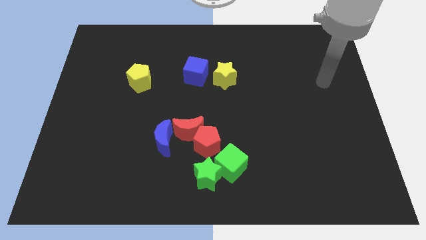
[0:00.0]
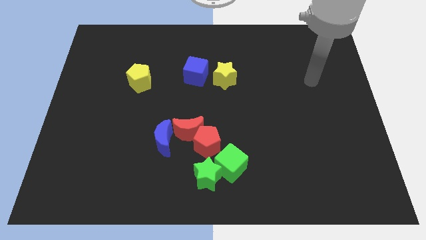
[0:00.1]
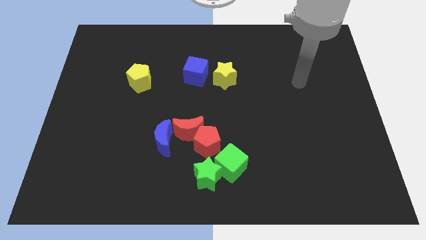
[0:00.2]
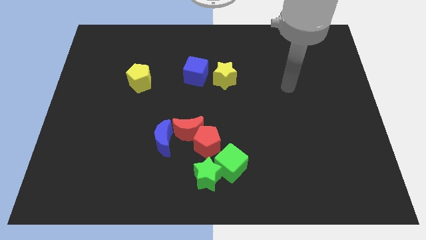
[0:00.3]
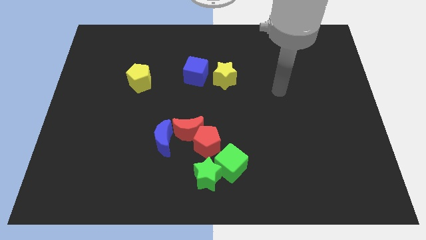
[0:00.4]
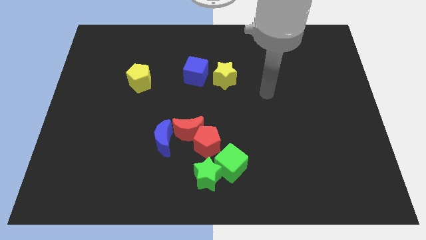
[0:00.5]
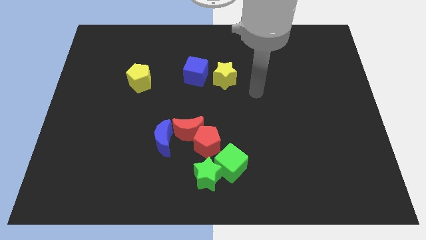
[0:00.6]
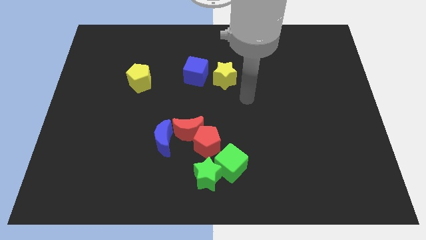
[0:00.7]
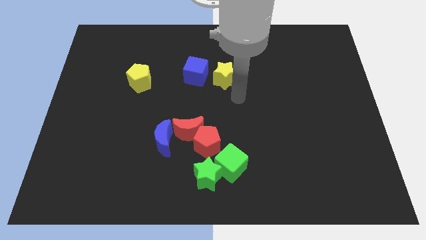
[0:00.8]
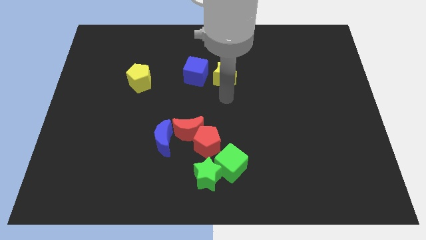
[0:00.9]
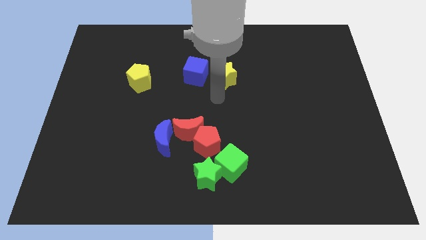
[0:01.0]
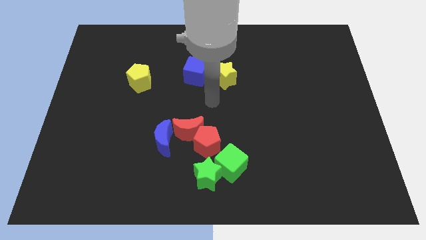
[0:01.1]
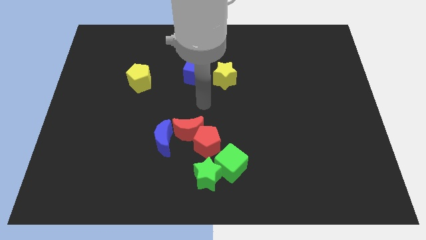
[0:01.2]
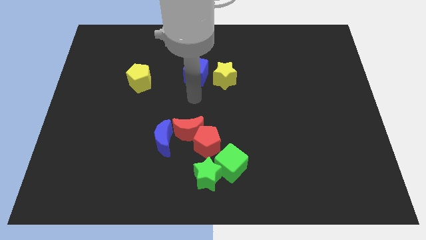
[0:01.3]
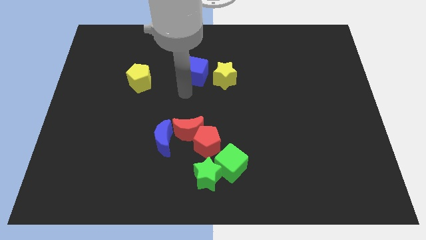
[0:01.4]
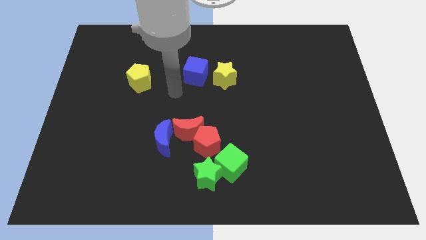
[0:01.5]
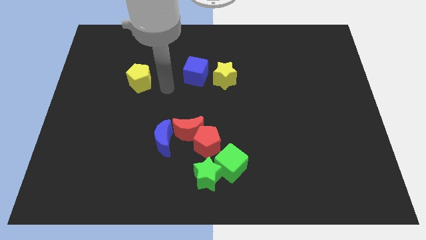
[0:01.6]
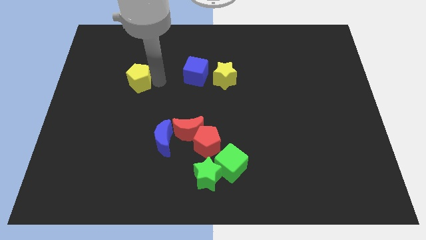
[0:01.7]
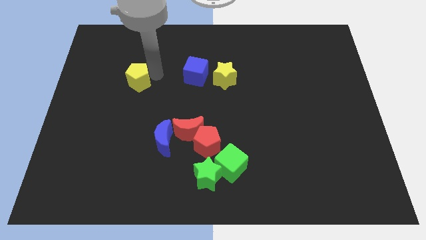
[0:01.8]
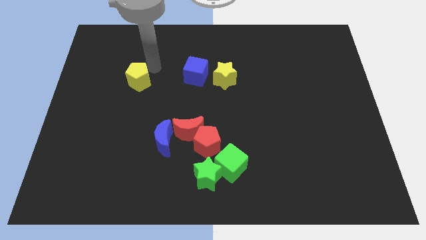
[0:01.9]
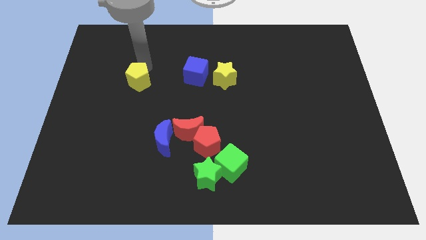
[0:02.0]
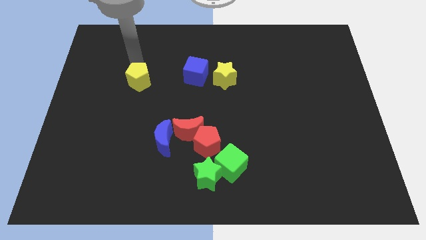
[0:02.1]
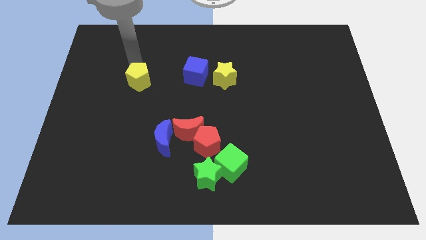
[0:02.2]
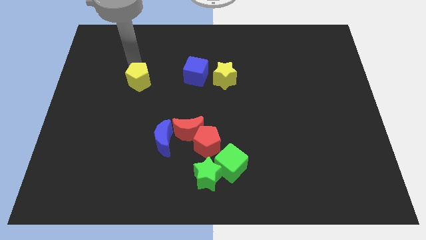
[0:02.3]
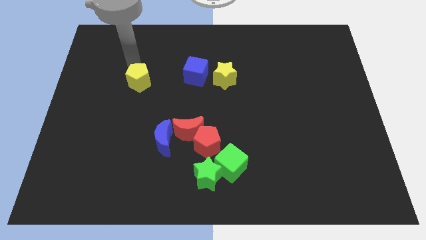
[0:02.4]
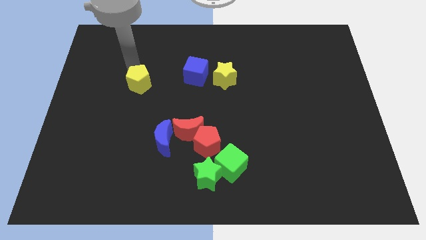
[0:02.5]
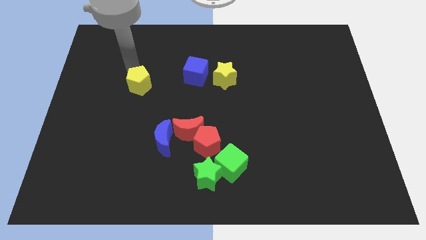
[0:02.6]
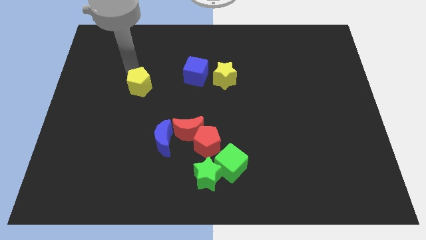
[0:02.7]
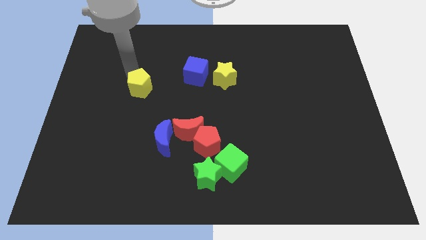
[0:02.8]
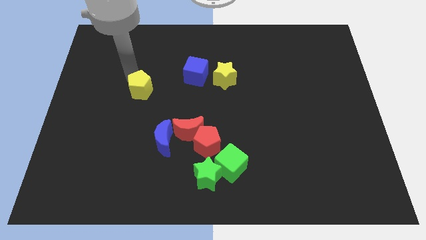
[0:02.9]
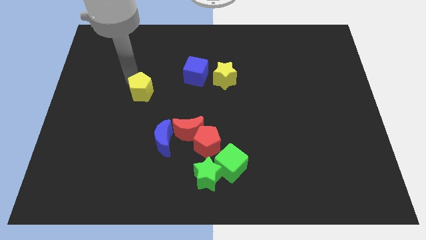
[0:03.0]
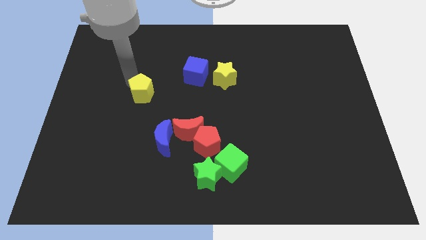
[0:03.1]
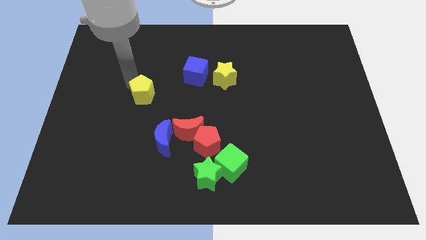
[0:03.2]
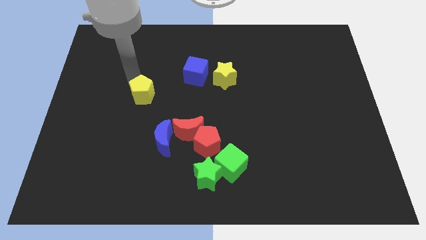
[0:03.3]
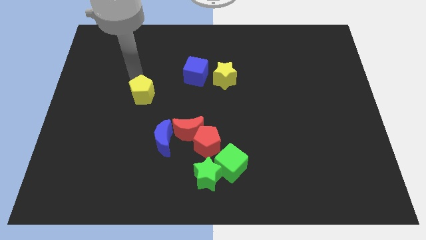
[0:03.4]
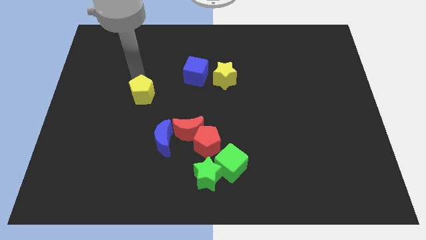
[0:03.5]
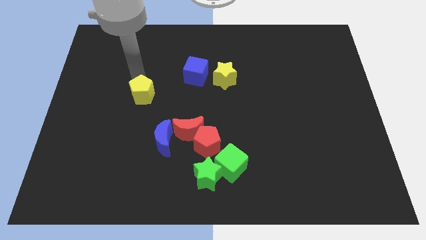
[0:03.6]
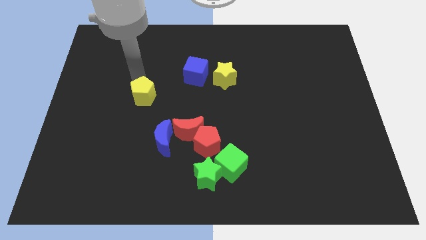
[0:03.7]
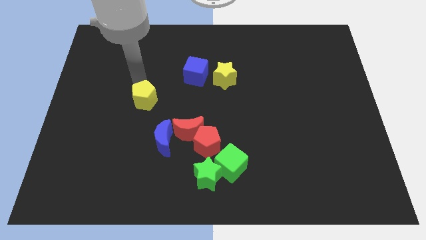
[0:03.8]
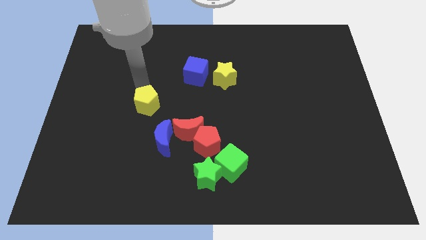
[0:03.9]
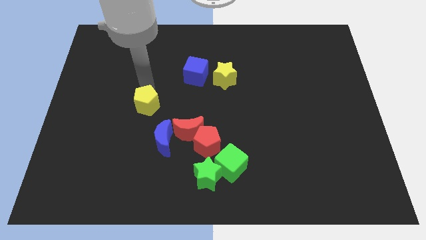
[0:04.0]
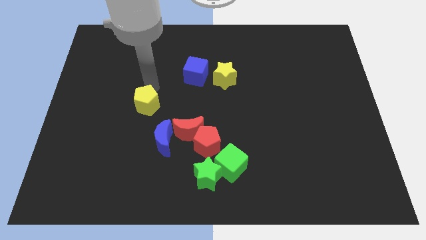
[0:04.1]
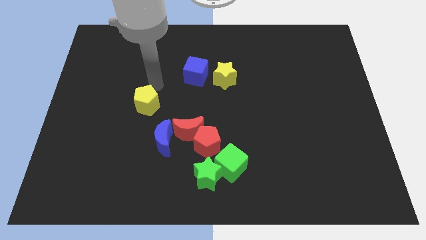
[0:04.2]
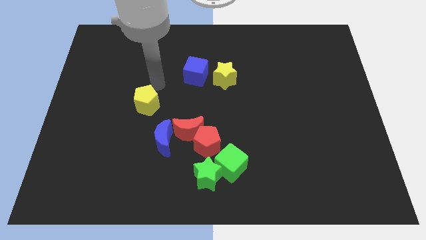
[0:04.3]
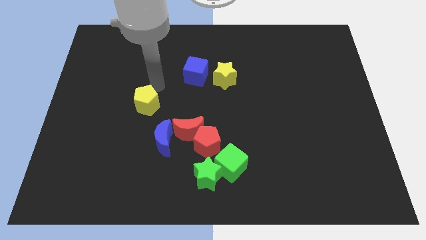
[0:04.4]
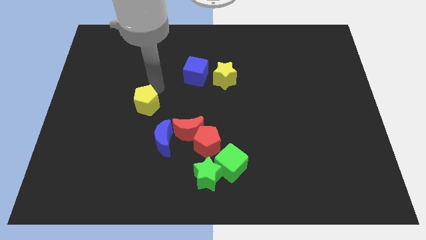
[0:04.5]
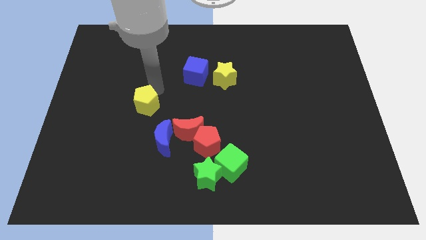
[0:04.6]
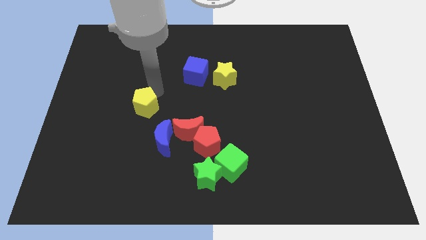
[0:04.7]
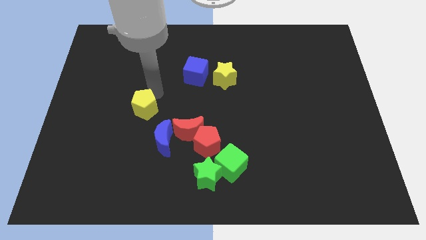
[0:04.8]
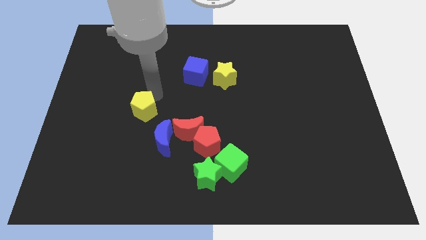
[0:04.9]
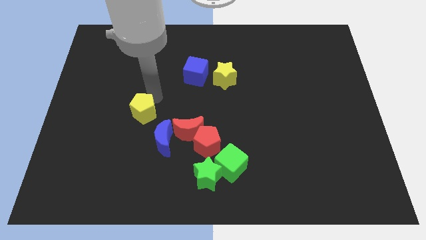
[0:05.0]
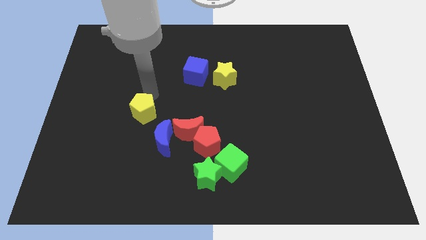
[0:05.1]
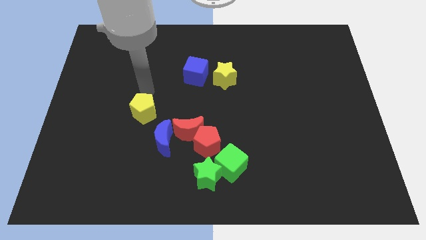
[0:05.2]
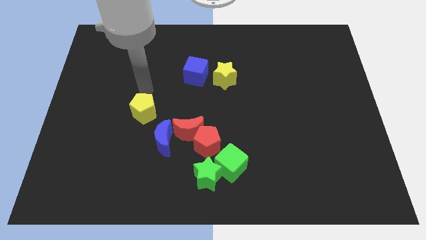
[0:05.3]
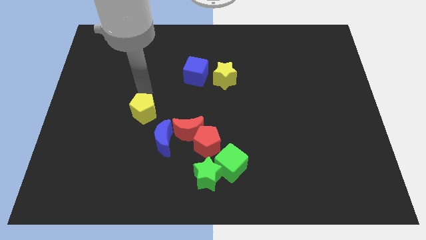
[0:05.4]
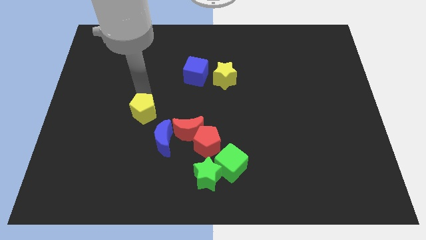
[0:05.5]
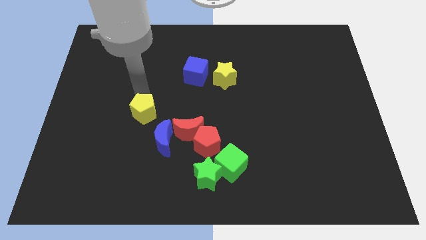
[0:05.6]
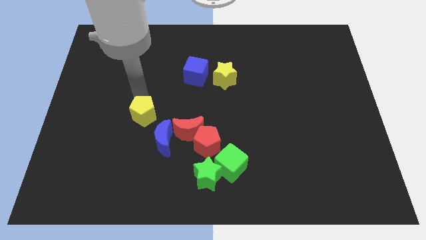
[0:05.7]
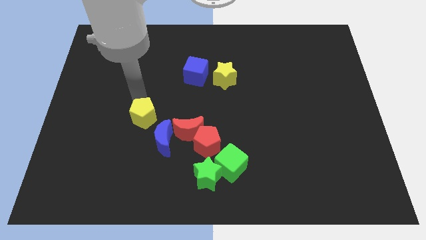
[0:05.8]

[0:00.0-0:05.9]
move the yellow pentagon to the left of the red moon
